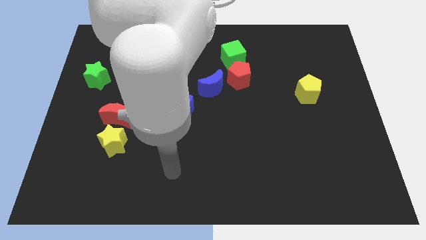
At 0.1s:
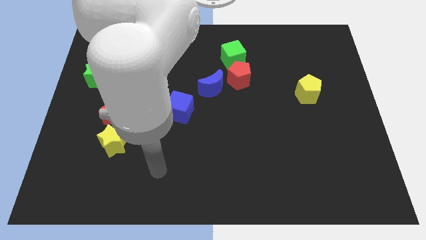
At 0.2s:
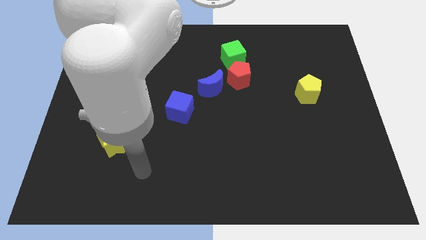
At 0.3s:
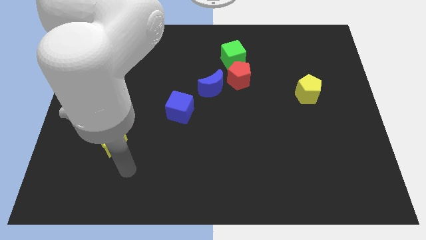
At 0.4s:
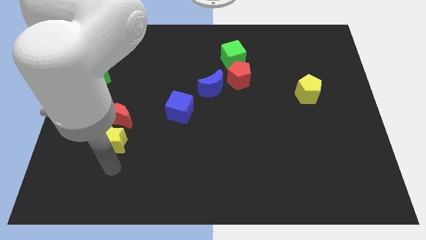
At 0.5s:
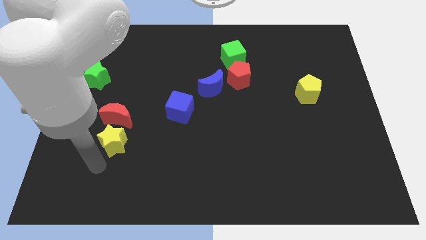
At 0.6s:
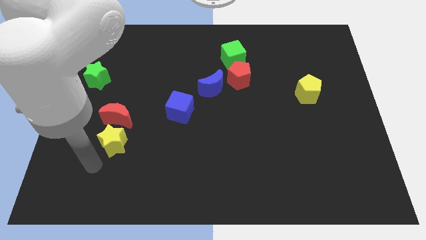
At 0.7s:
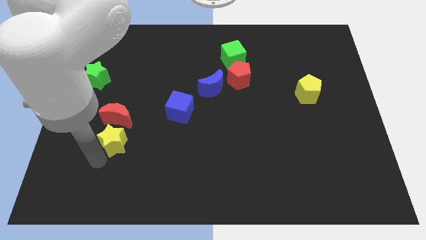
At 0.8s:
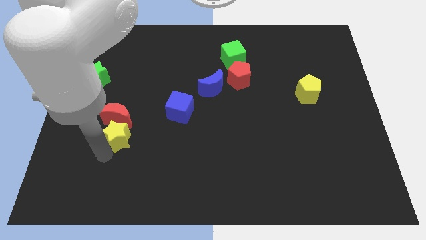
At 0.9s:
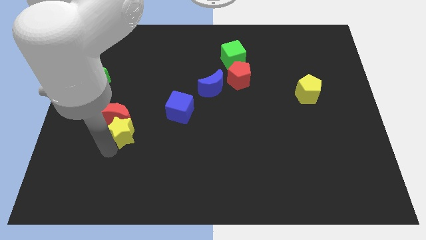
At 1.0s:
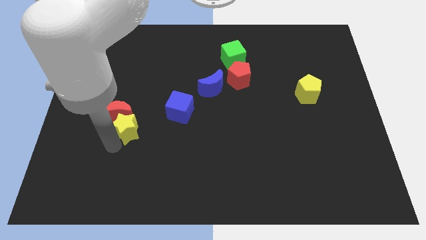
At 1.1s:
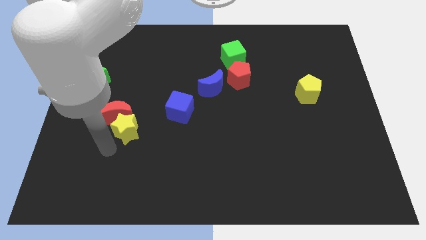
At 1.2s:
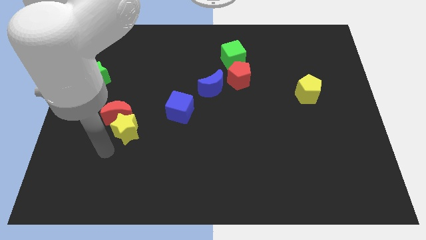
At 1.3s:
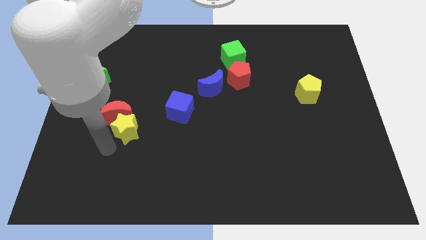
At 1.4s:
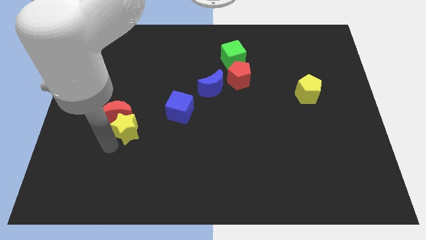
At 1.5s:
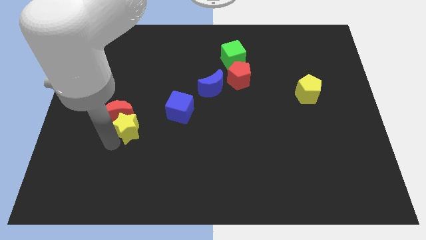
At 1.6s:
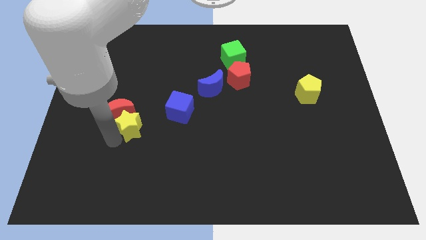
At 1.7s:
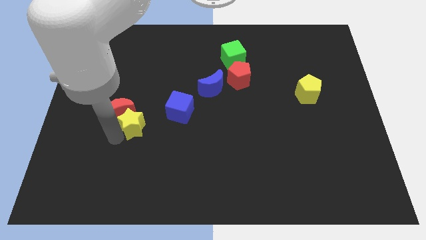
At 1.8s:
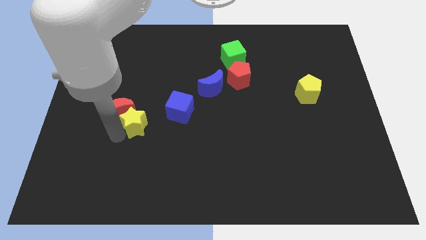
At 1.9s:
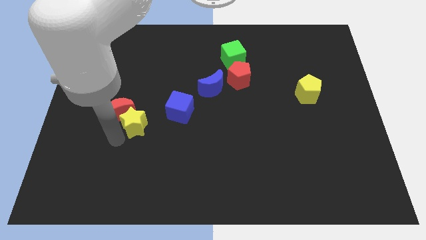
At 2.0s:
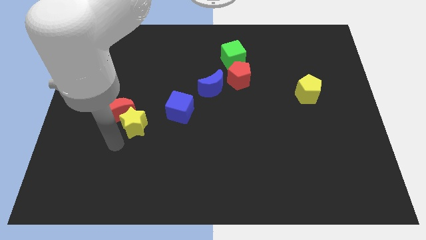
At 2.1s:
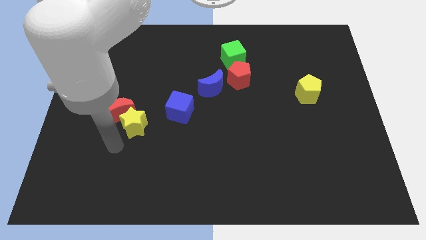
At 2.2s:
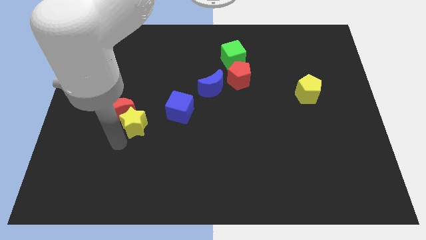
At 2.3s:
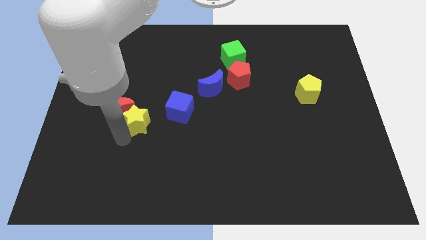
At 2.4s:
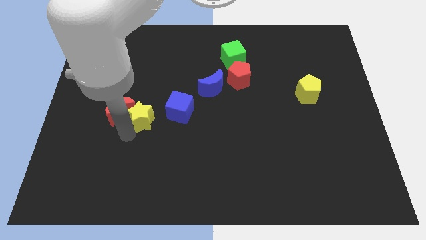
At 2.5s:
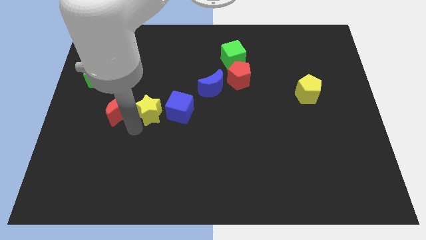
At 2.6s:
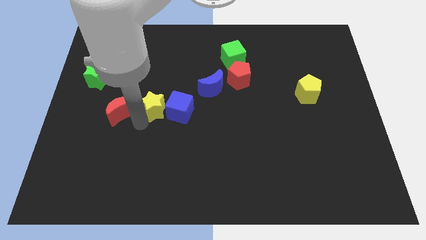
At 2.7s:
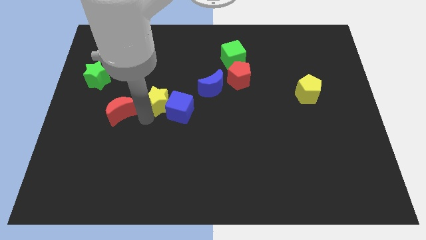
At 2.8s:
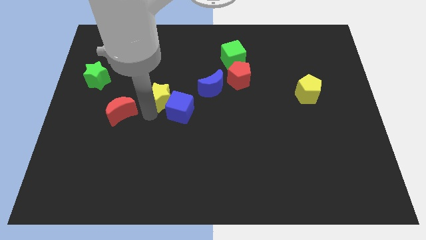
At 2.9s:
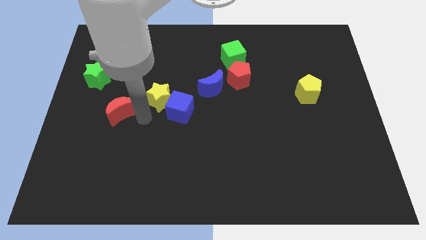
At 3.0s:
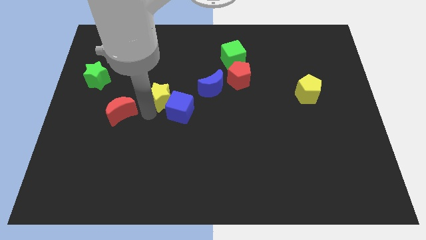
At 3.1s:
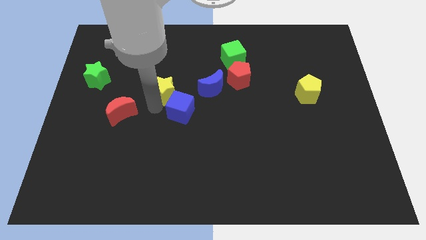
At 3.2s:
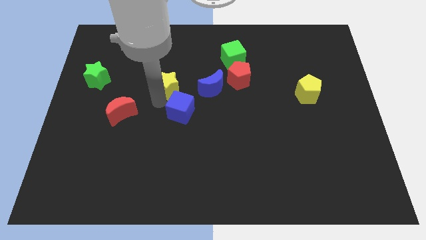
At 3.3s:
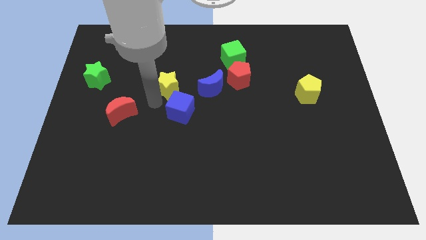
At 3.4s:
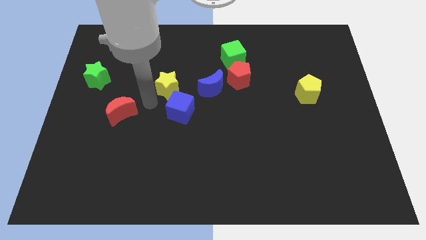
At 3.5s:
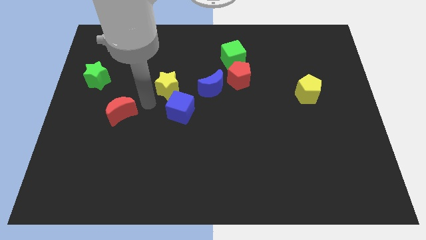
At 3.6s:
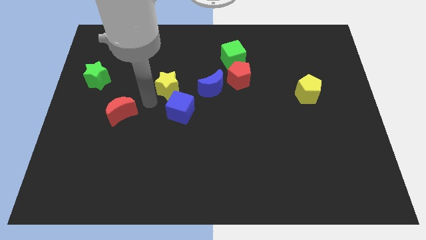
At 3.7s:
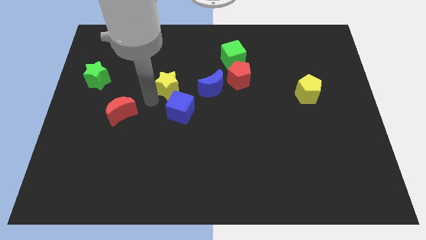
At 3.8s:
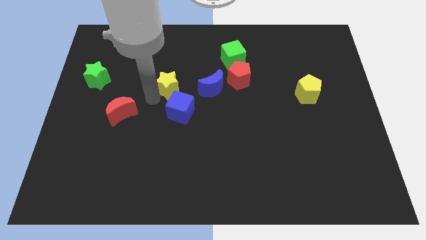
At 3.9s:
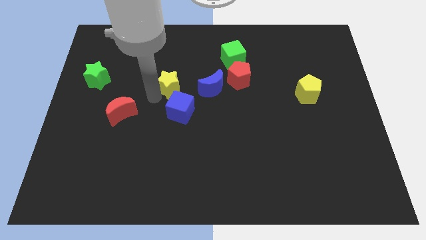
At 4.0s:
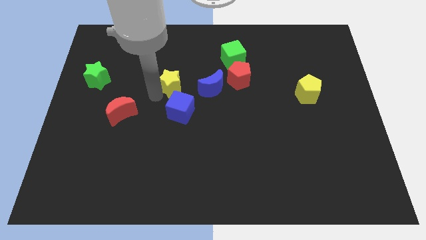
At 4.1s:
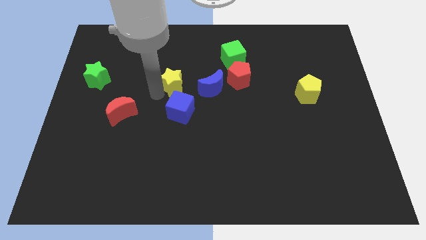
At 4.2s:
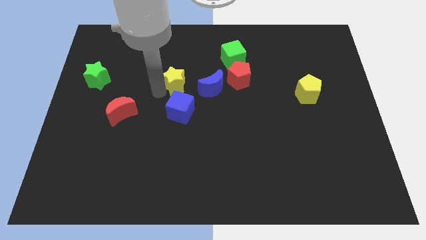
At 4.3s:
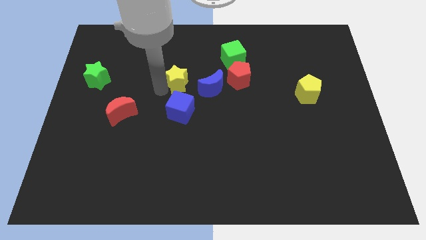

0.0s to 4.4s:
put the yellow star diagonally up and to the left of the blue moon

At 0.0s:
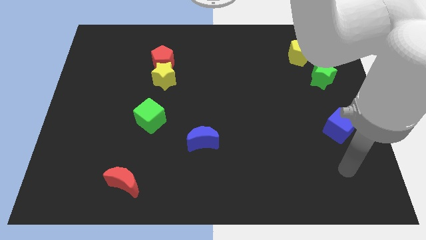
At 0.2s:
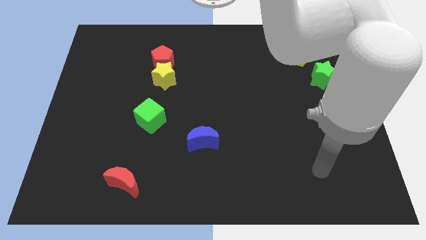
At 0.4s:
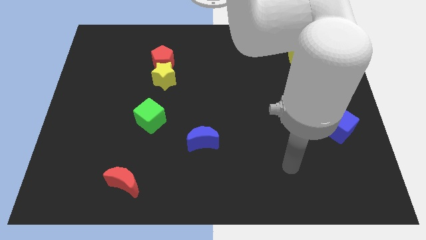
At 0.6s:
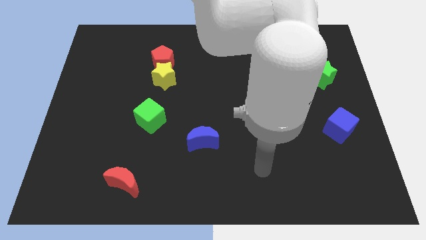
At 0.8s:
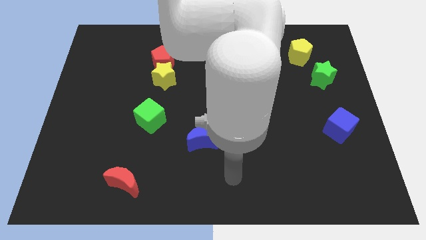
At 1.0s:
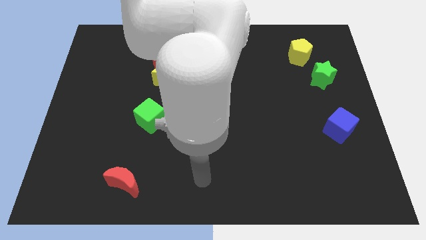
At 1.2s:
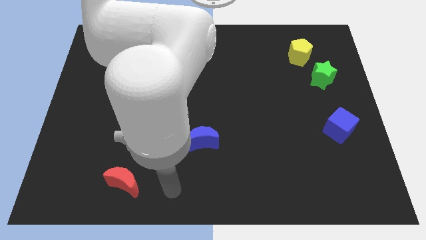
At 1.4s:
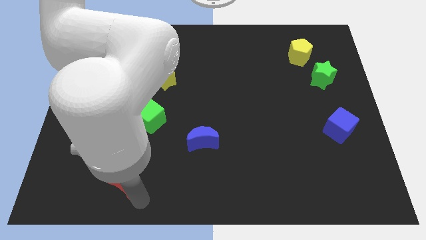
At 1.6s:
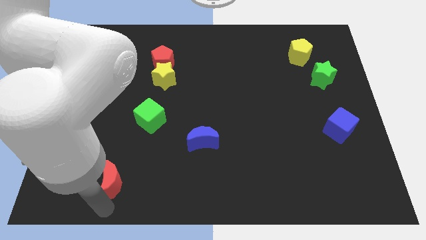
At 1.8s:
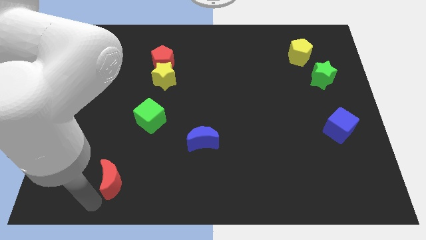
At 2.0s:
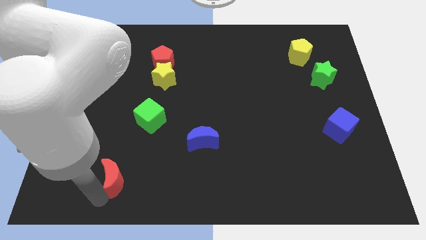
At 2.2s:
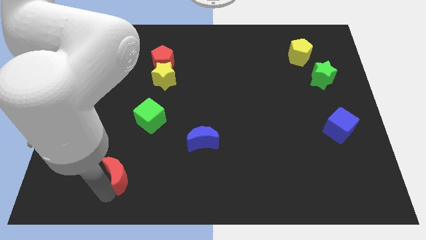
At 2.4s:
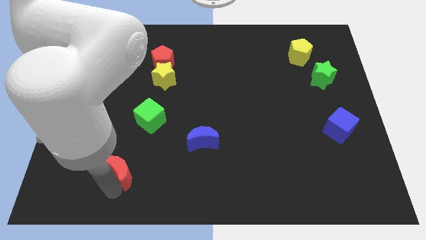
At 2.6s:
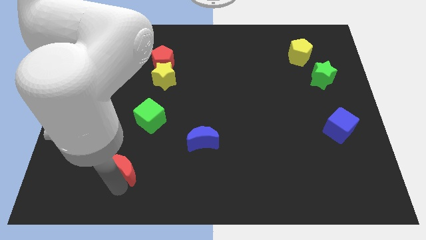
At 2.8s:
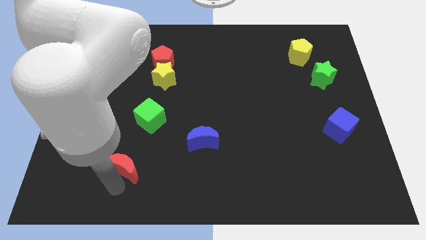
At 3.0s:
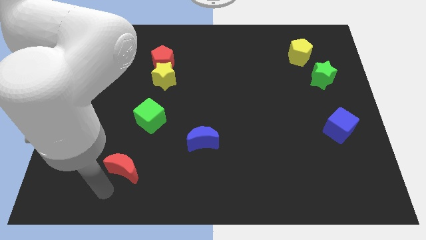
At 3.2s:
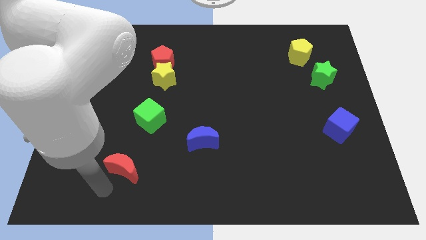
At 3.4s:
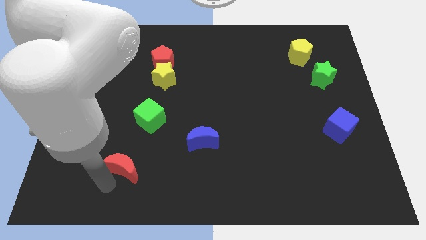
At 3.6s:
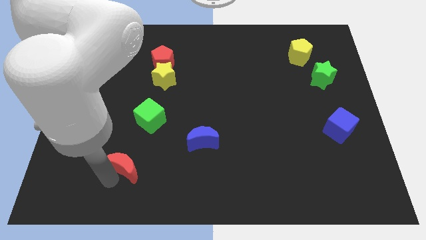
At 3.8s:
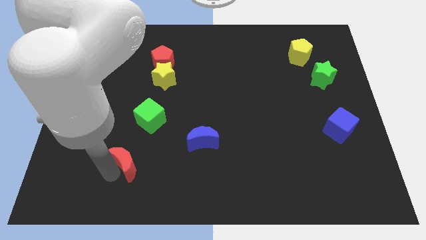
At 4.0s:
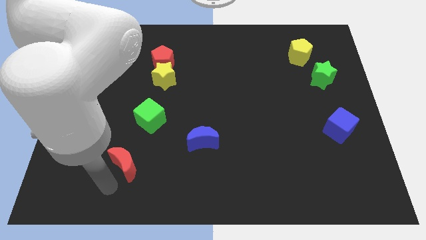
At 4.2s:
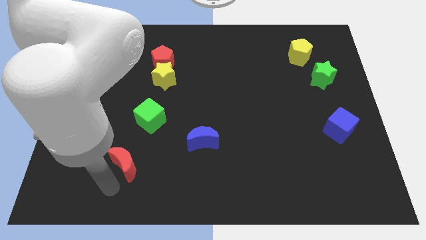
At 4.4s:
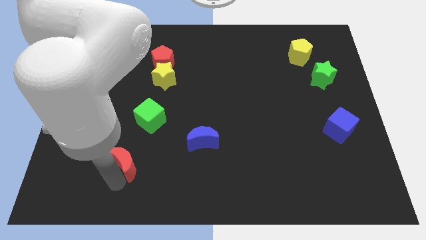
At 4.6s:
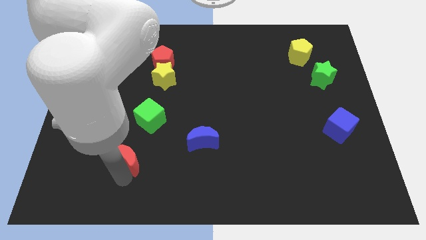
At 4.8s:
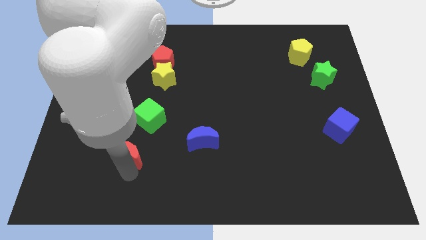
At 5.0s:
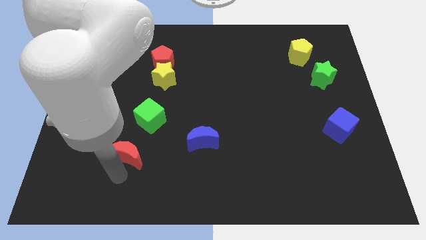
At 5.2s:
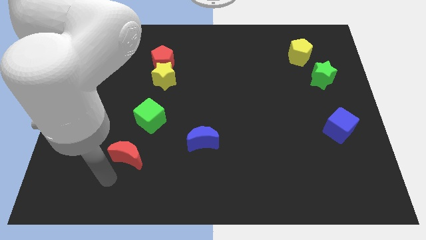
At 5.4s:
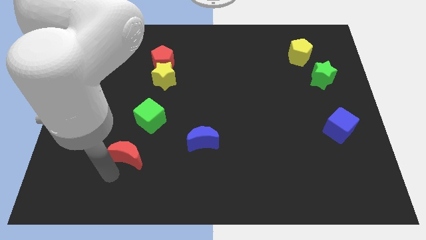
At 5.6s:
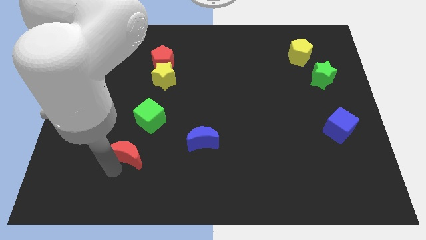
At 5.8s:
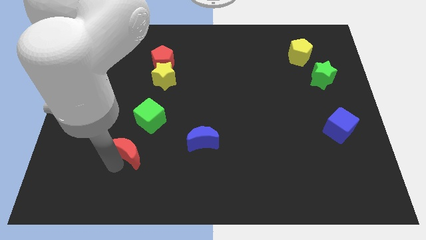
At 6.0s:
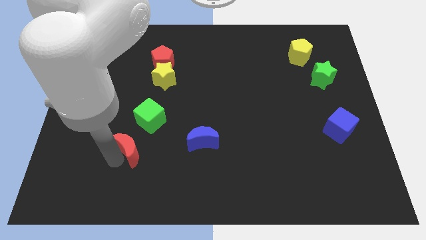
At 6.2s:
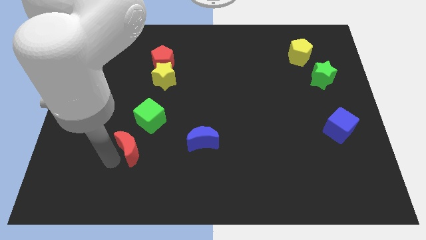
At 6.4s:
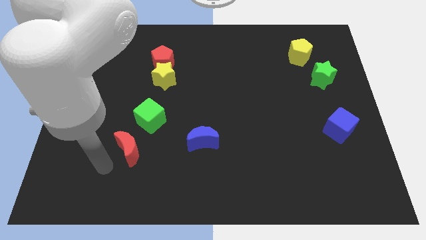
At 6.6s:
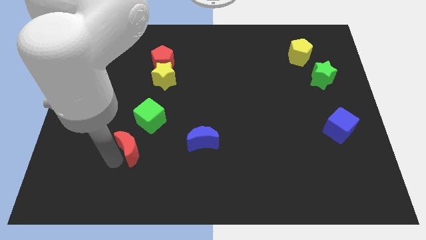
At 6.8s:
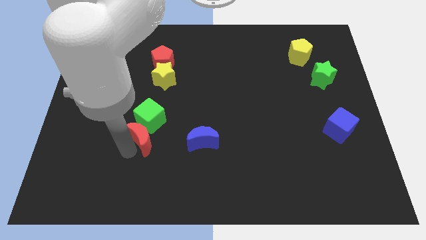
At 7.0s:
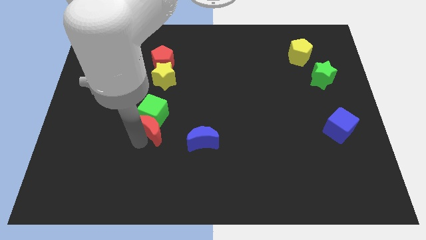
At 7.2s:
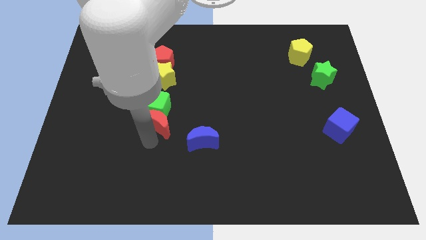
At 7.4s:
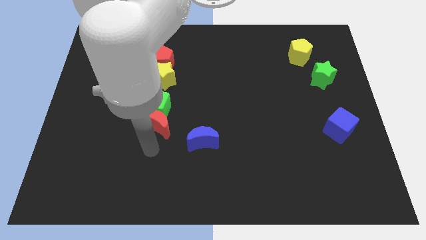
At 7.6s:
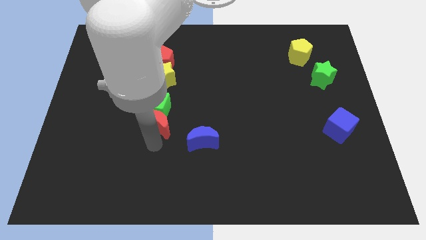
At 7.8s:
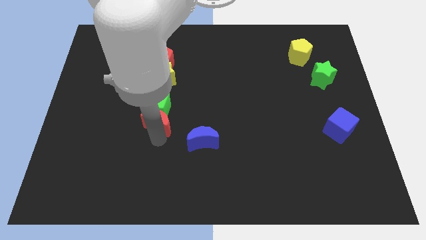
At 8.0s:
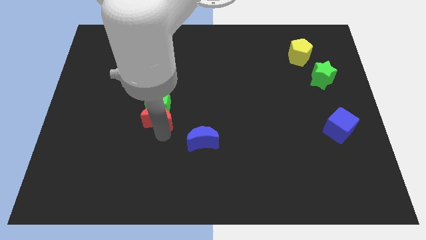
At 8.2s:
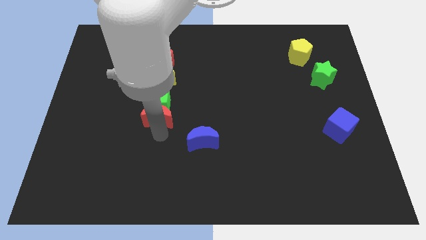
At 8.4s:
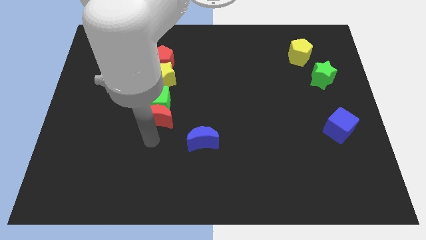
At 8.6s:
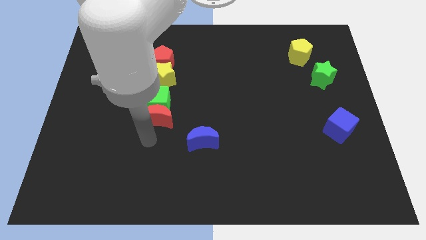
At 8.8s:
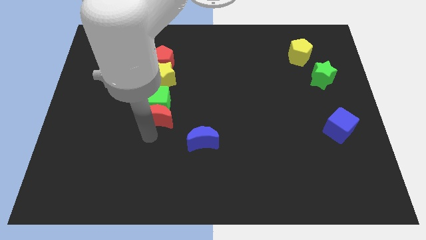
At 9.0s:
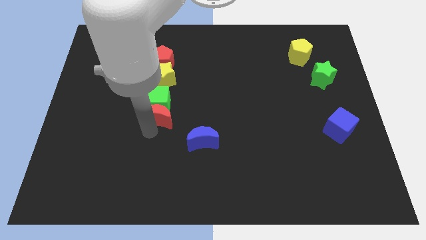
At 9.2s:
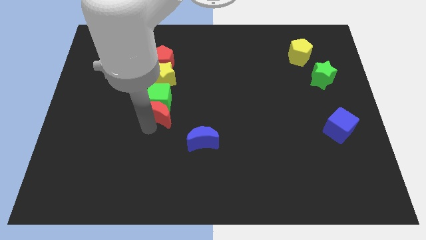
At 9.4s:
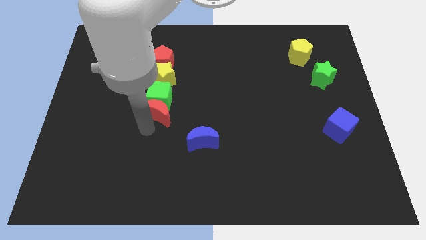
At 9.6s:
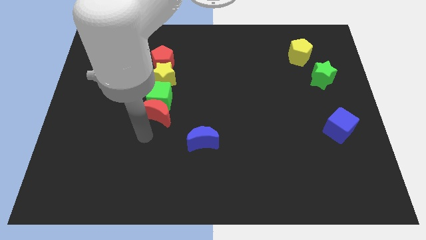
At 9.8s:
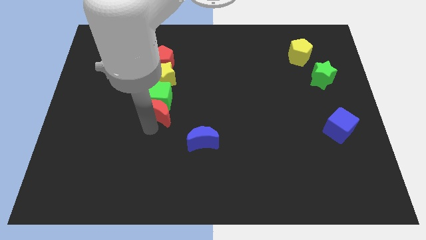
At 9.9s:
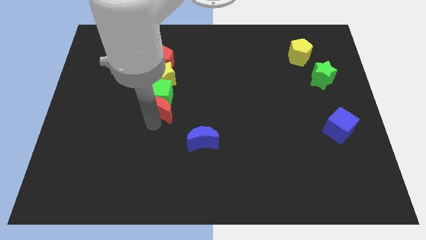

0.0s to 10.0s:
move the red moon to the bottom of the red pentagon
